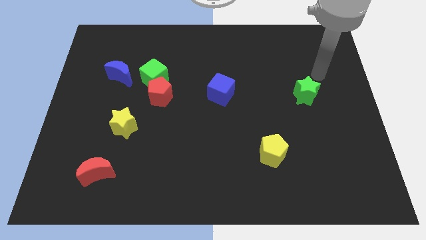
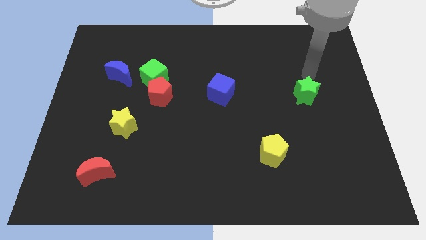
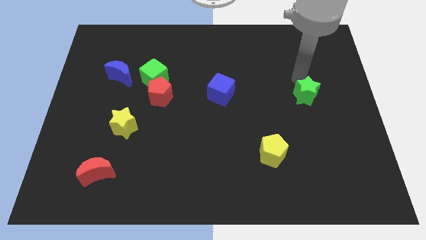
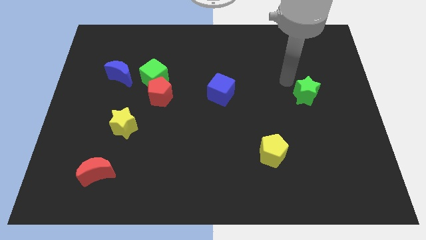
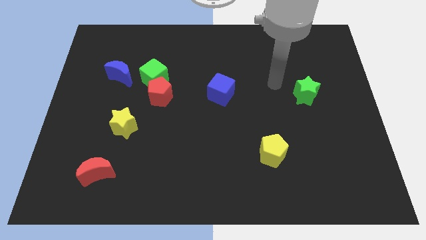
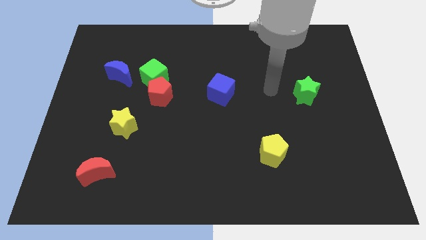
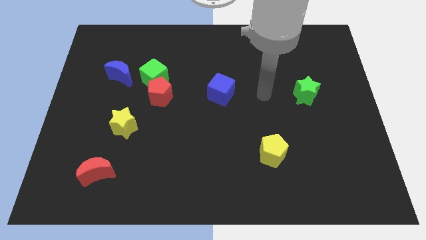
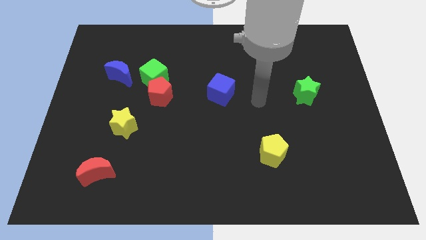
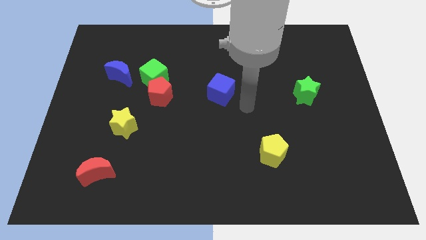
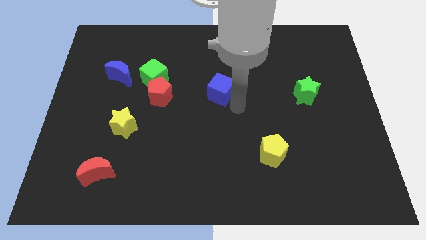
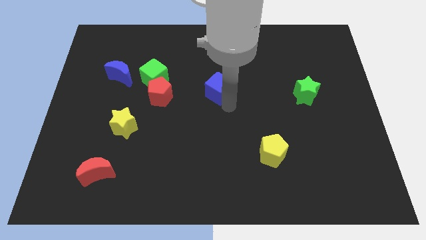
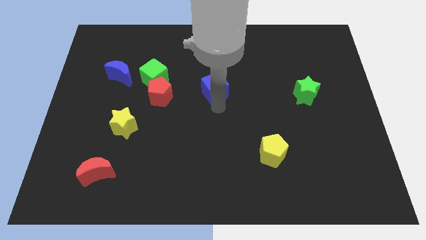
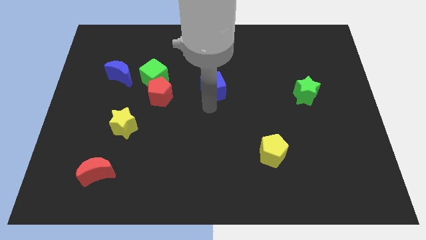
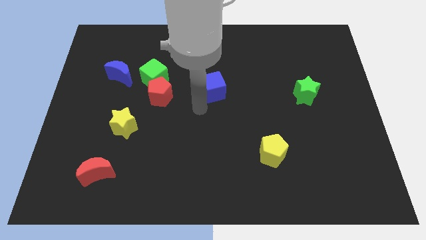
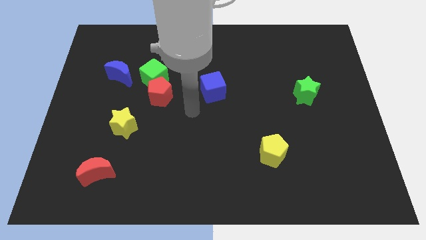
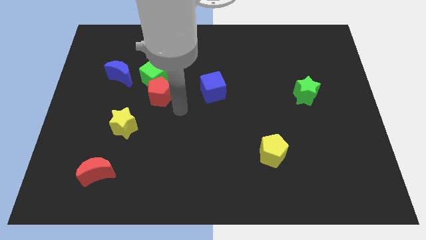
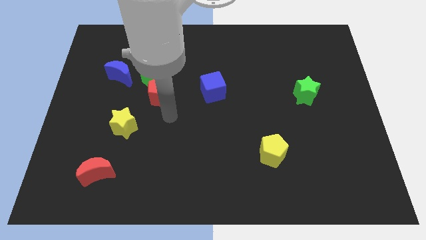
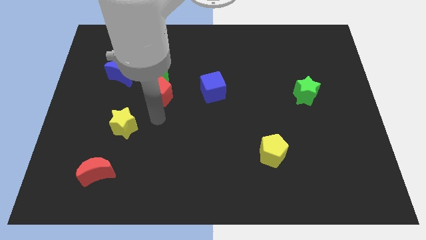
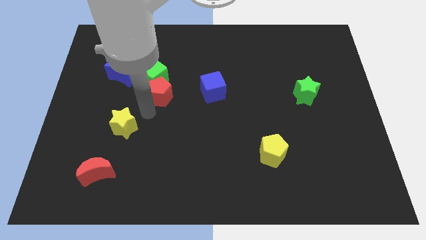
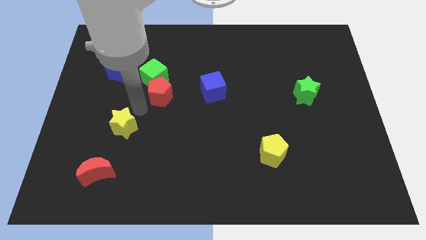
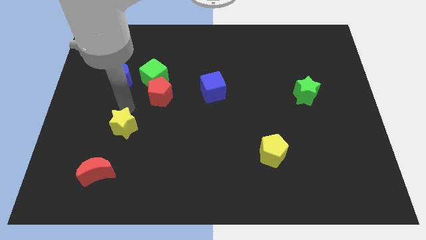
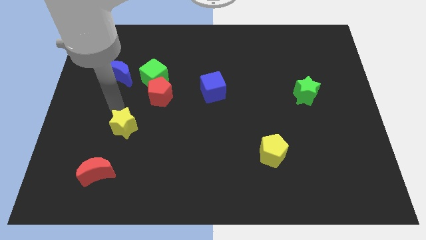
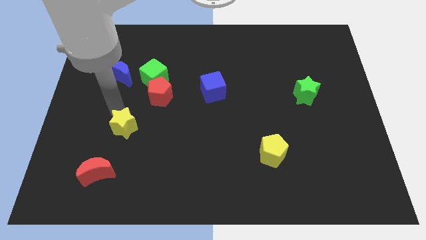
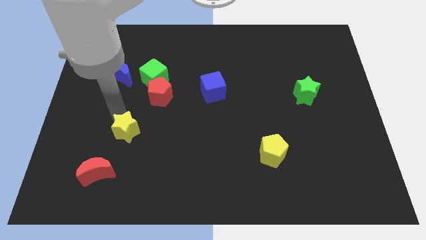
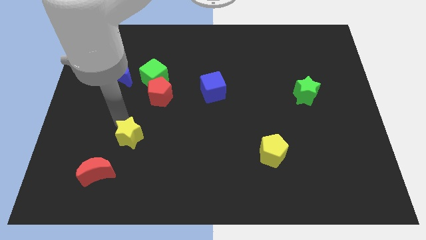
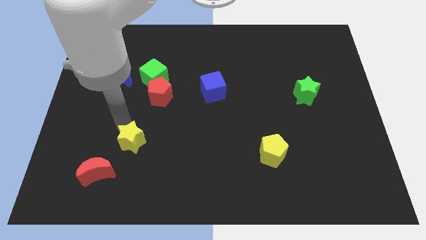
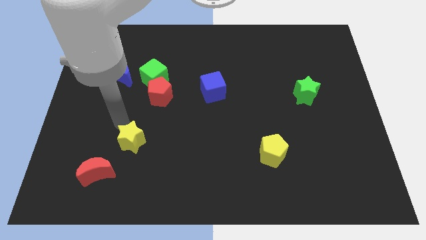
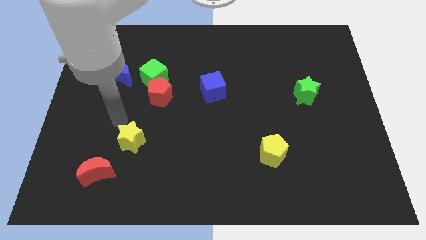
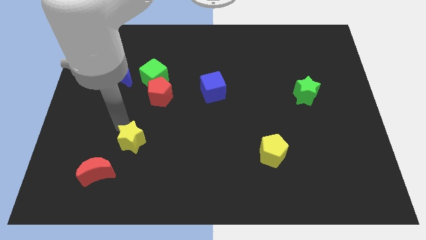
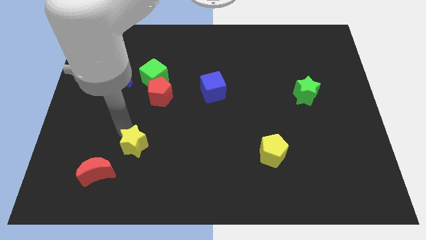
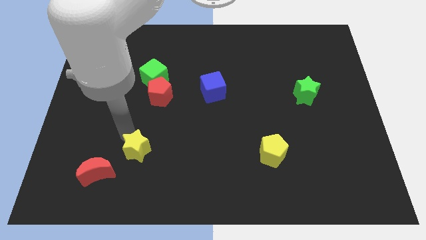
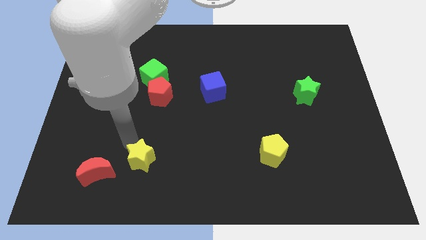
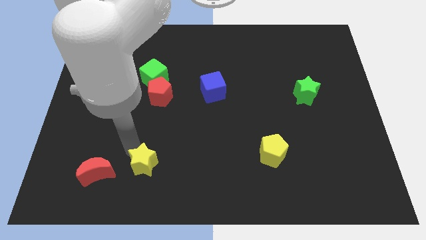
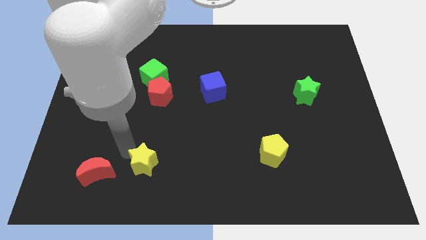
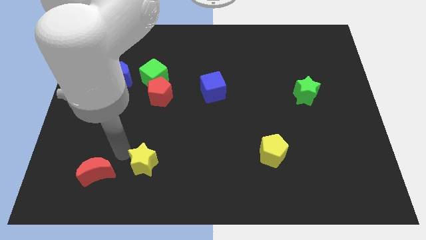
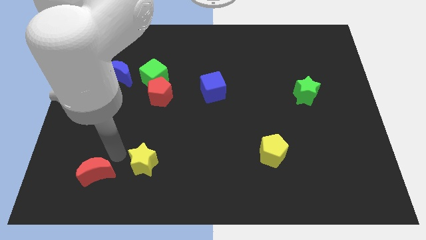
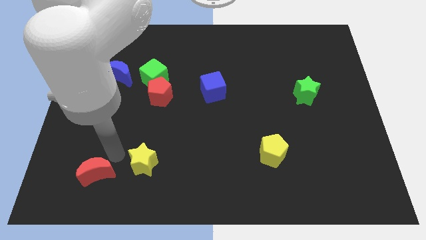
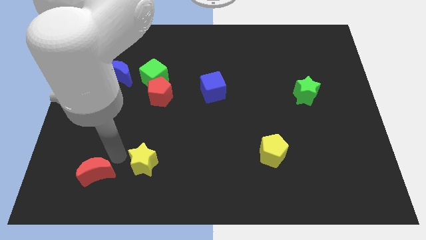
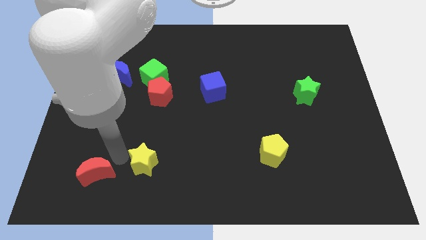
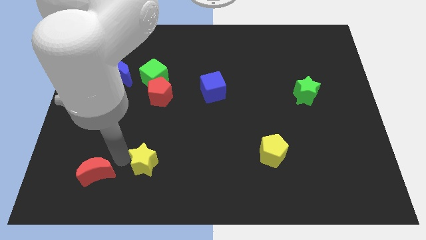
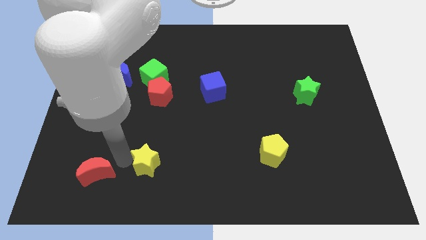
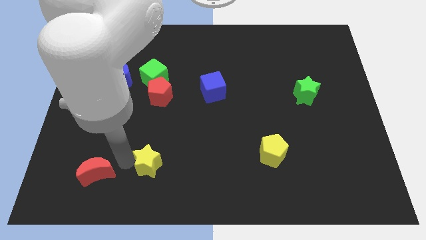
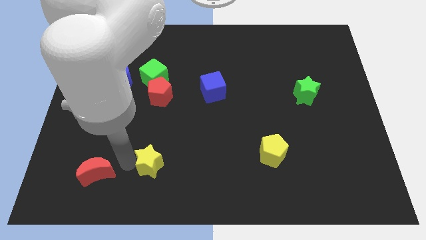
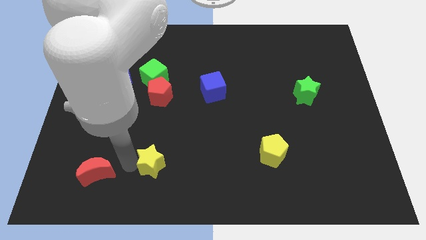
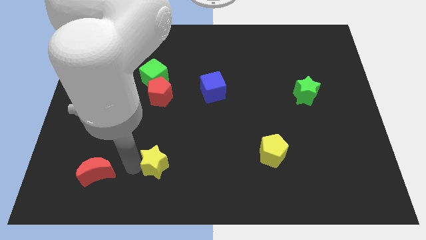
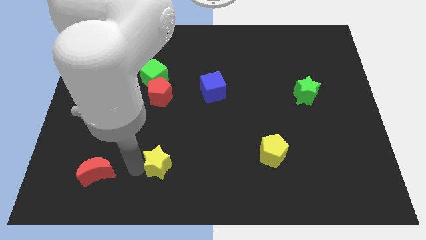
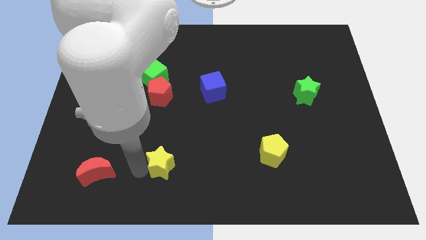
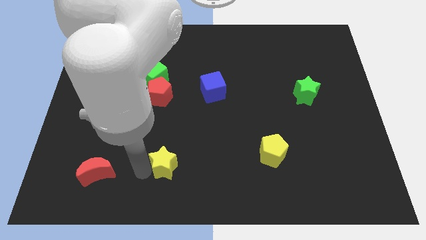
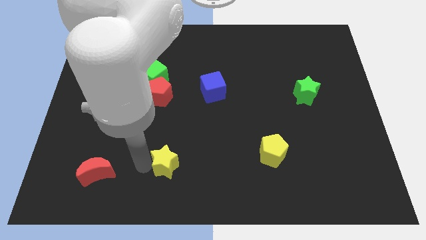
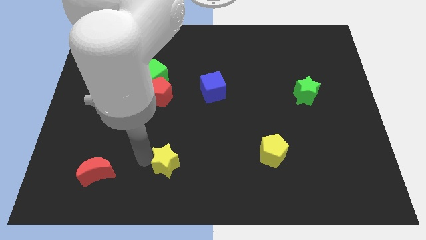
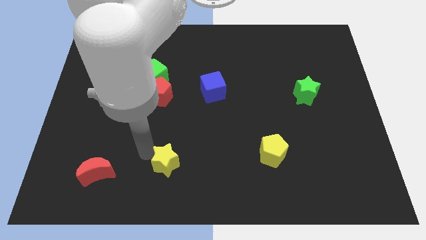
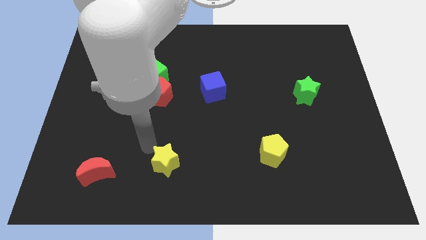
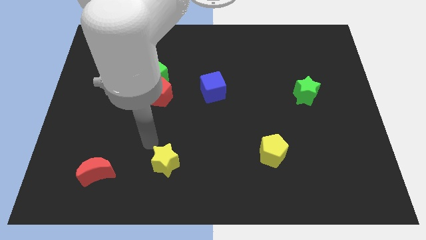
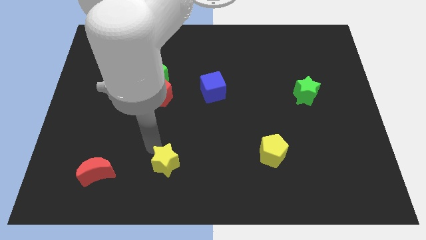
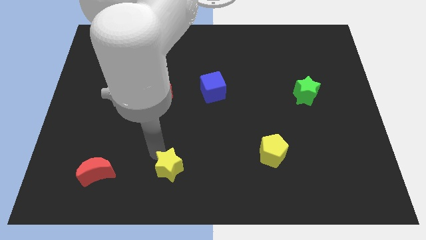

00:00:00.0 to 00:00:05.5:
put the yellow star to the bottom side

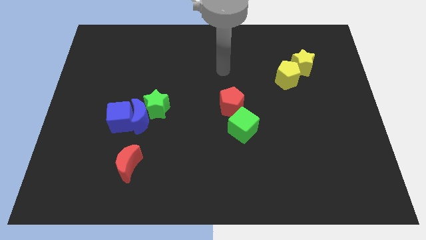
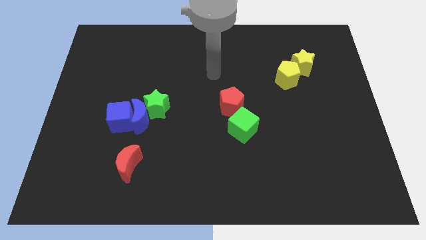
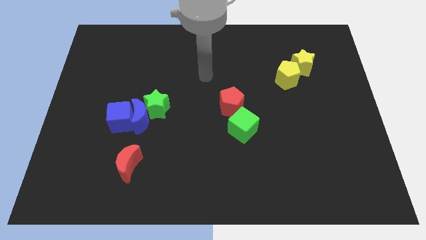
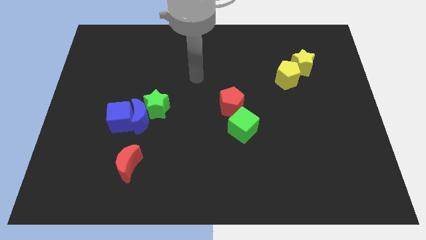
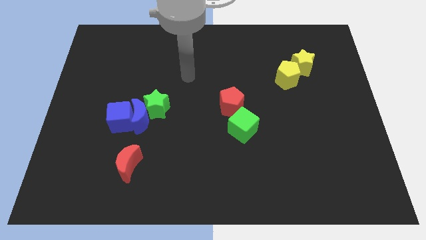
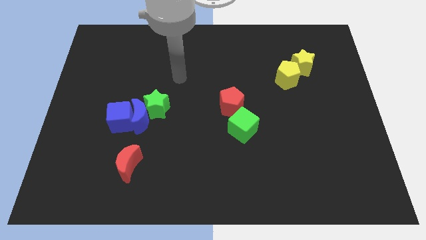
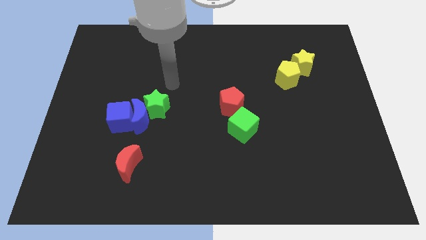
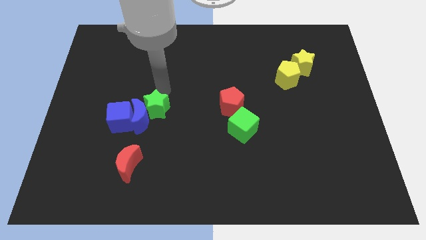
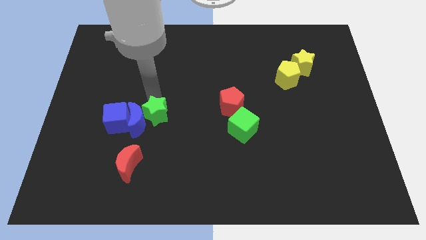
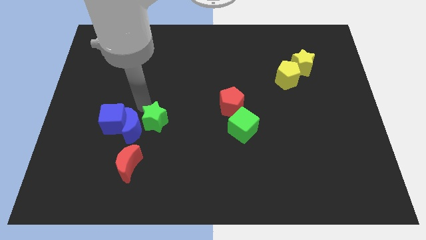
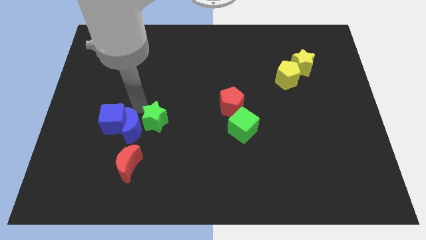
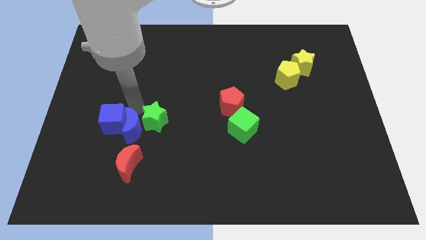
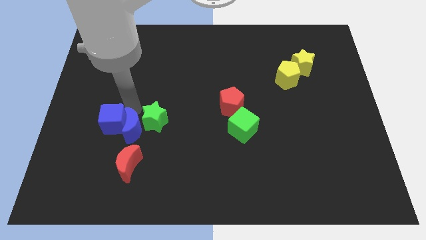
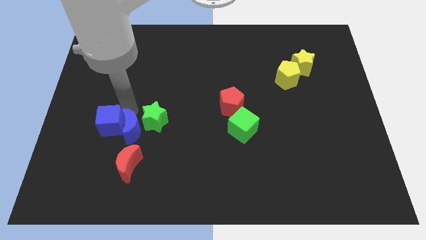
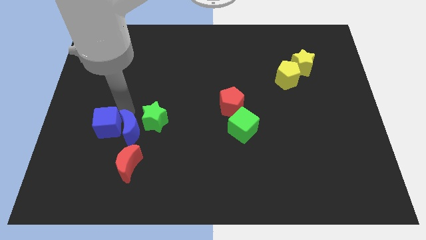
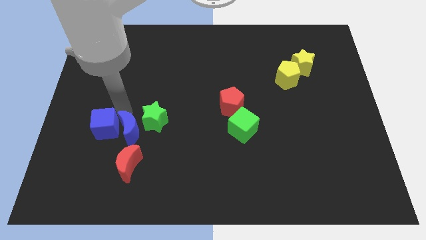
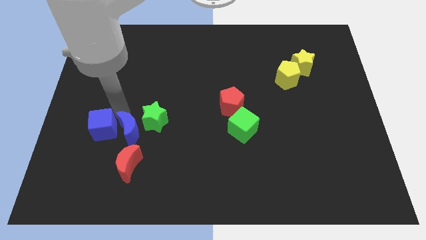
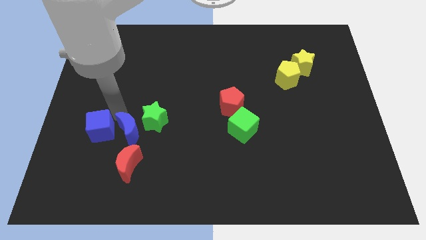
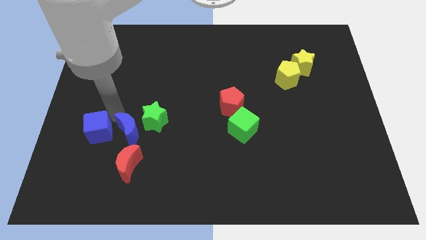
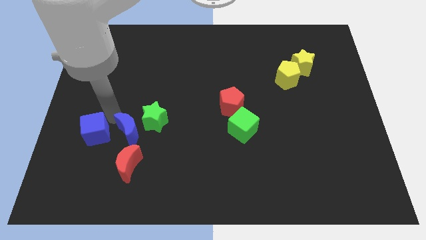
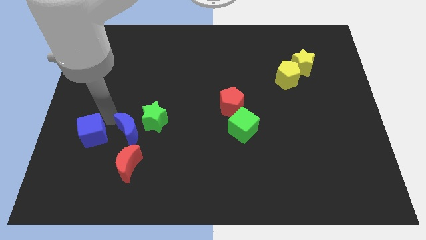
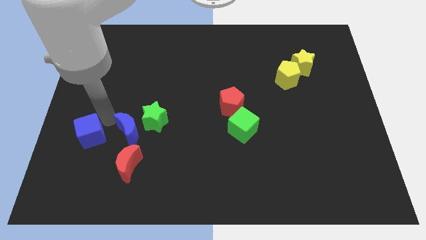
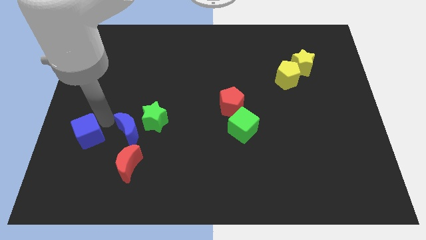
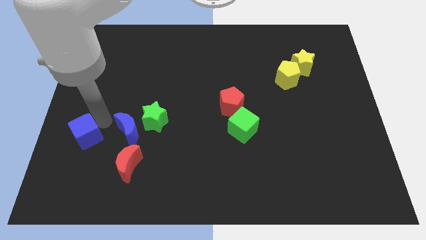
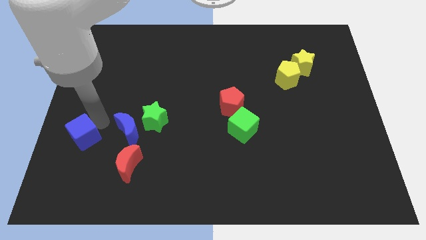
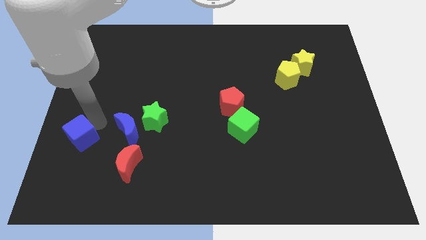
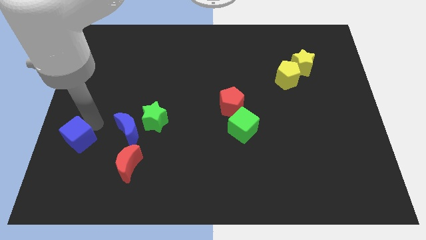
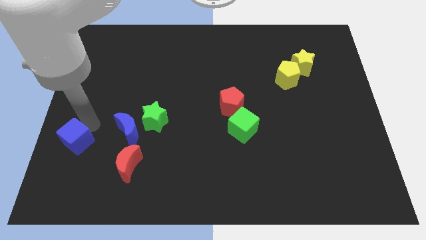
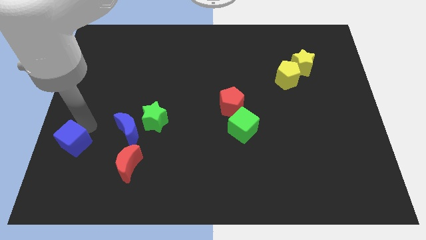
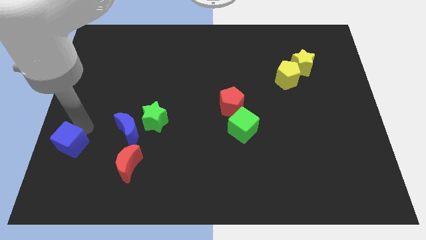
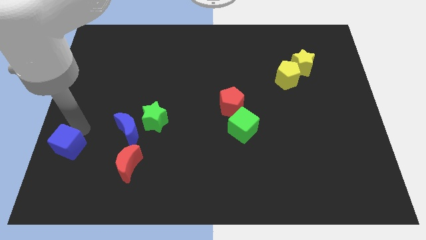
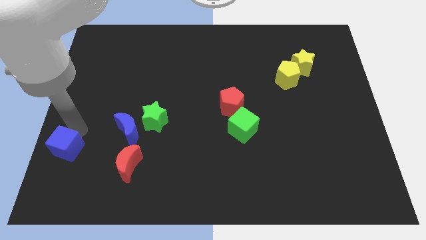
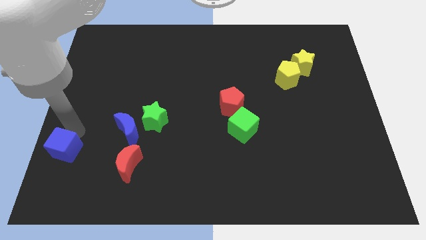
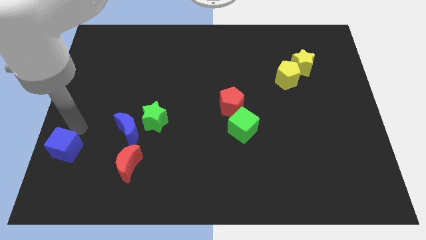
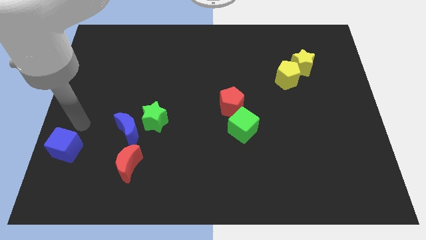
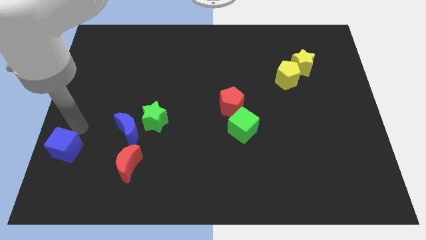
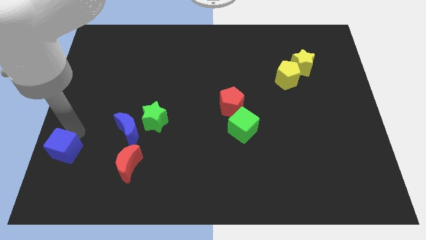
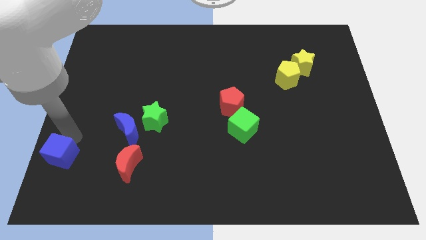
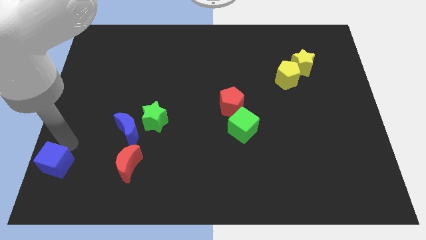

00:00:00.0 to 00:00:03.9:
move the blue cube to the bottom left of the board
